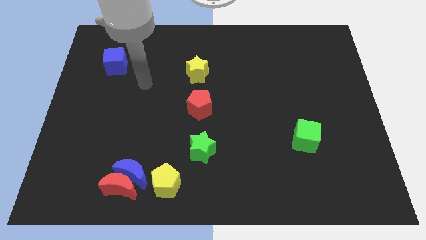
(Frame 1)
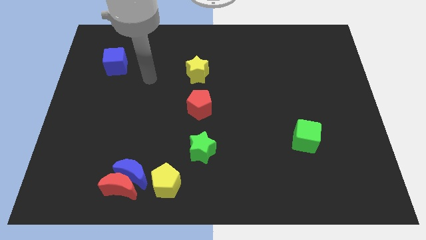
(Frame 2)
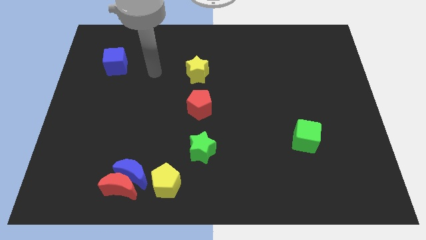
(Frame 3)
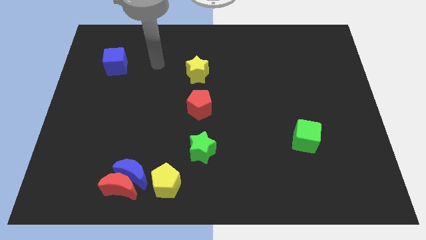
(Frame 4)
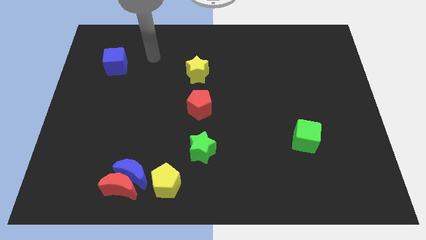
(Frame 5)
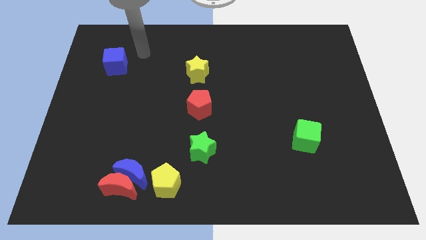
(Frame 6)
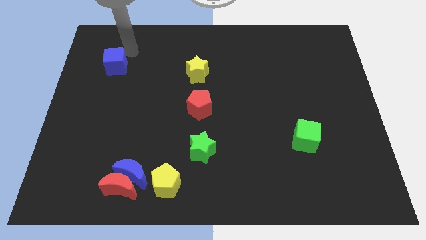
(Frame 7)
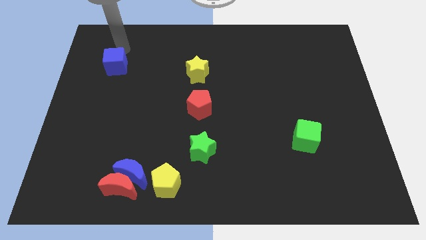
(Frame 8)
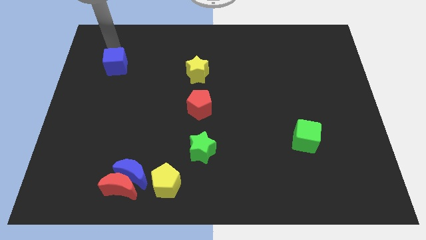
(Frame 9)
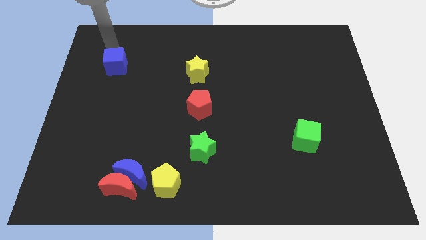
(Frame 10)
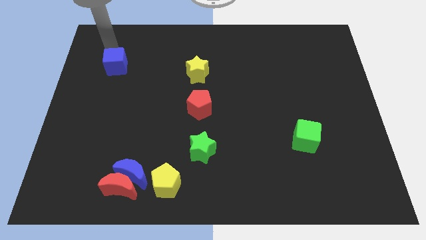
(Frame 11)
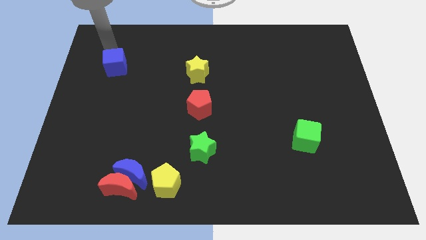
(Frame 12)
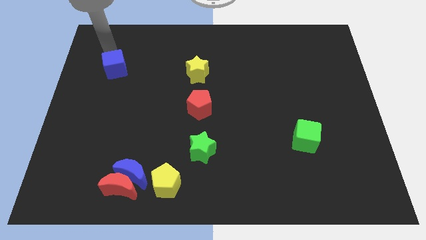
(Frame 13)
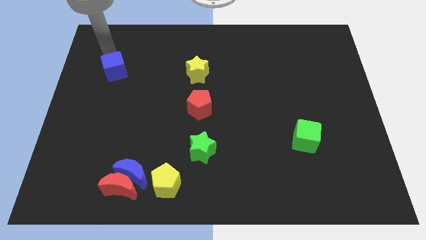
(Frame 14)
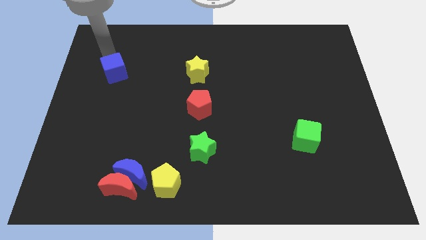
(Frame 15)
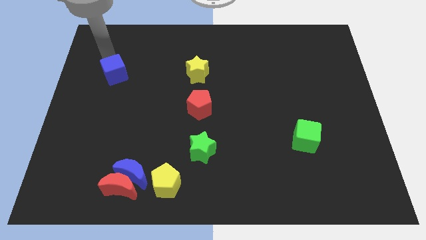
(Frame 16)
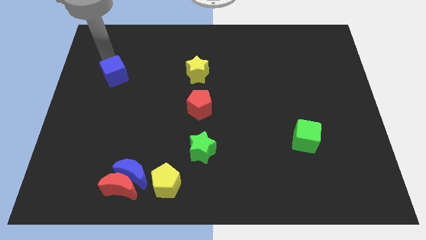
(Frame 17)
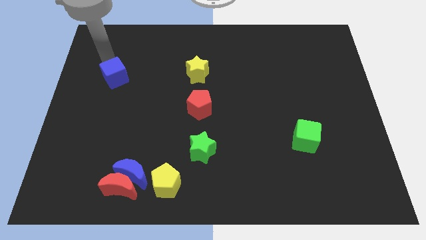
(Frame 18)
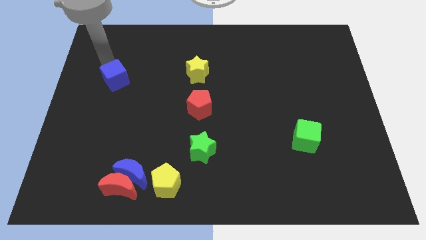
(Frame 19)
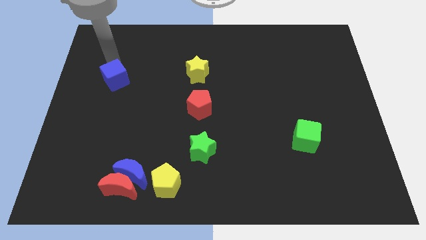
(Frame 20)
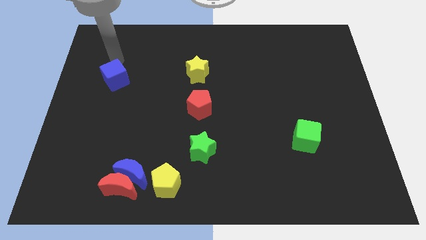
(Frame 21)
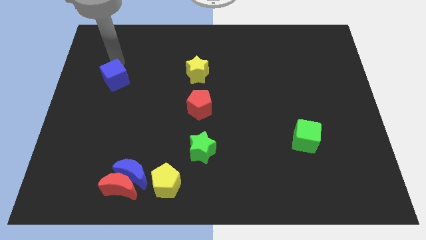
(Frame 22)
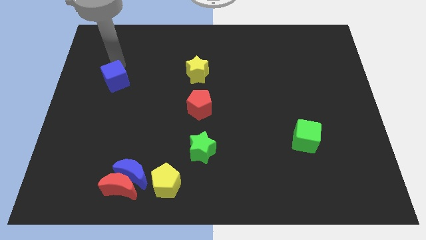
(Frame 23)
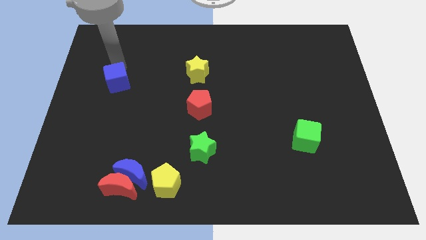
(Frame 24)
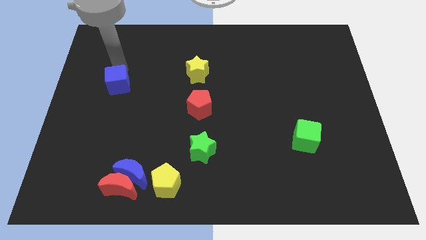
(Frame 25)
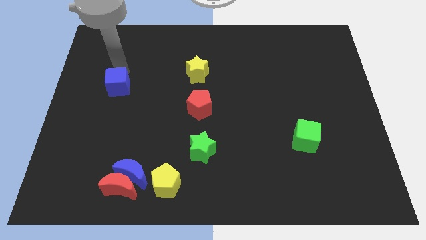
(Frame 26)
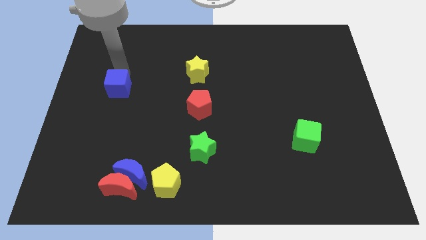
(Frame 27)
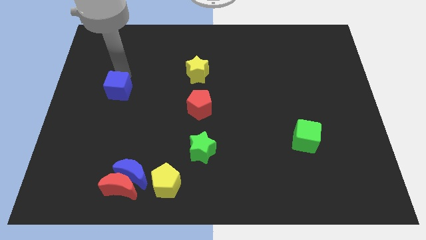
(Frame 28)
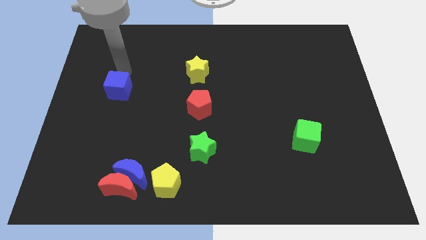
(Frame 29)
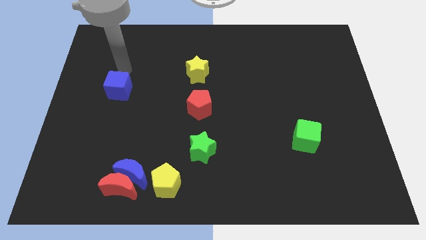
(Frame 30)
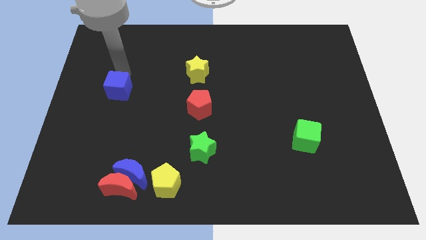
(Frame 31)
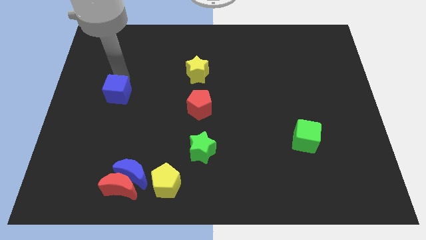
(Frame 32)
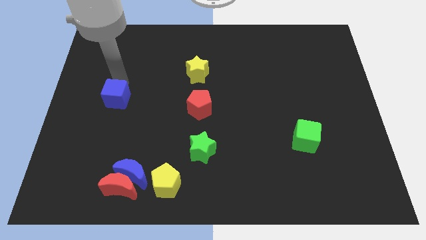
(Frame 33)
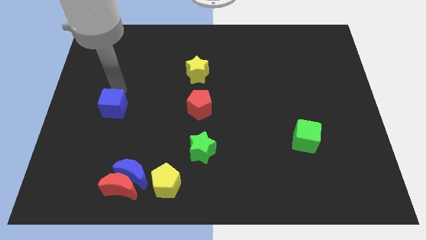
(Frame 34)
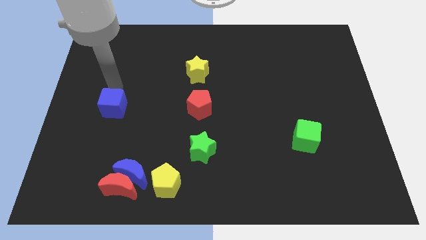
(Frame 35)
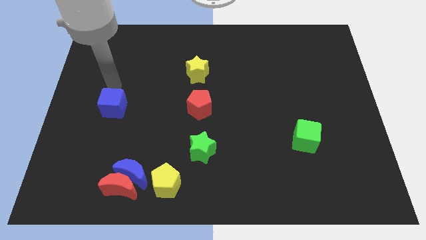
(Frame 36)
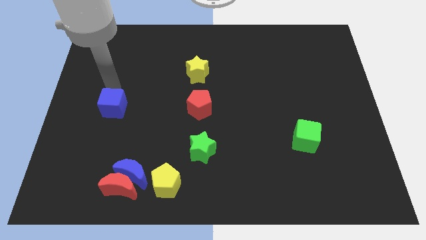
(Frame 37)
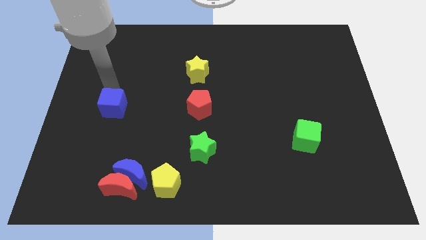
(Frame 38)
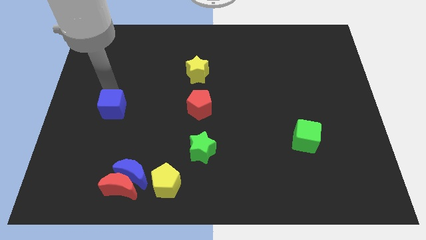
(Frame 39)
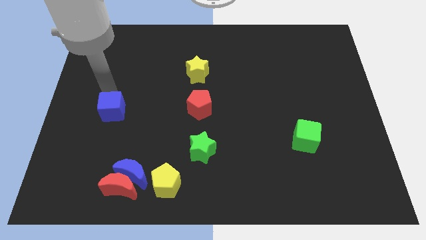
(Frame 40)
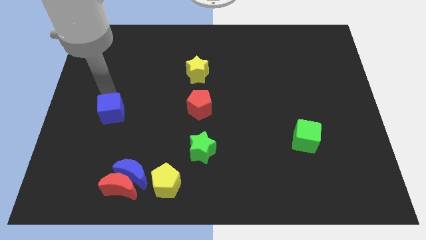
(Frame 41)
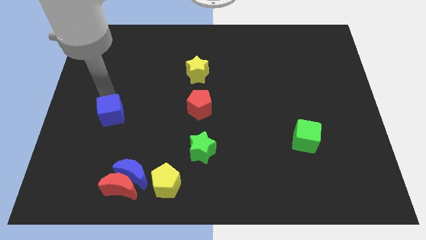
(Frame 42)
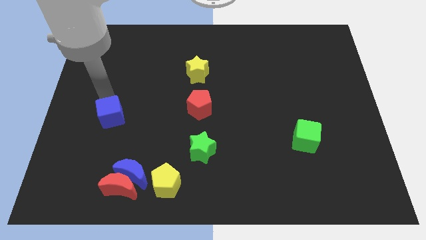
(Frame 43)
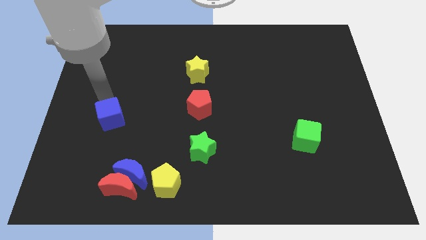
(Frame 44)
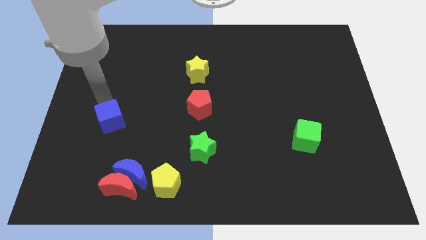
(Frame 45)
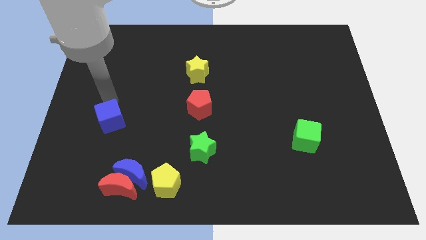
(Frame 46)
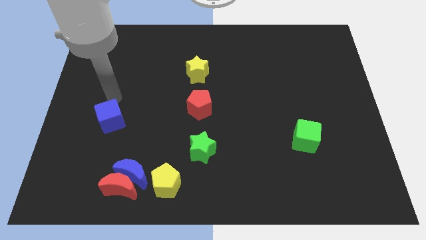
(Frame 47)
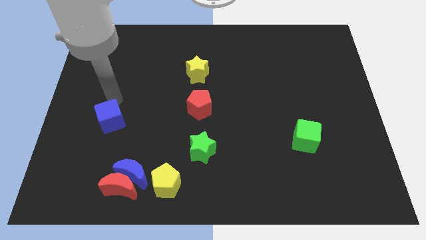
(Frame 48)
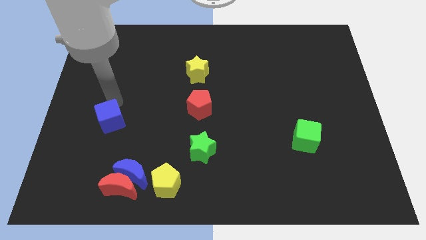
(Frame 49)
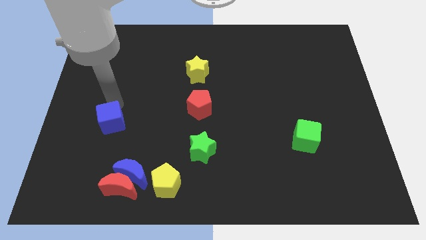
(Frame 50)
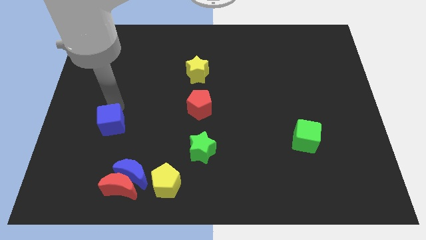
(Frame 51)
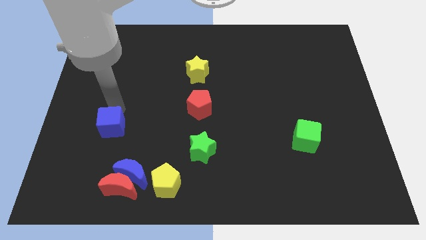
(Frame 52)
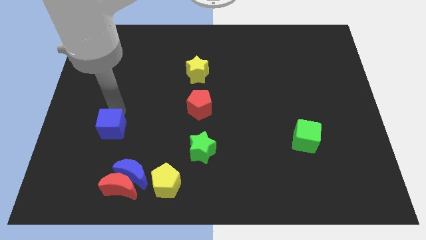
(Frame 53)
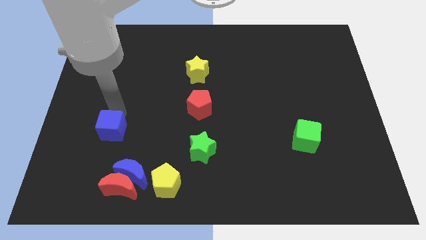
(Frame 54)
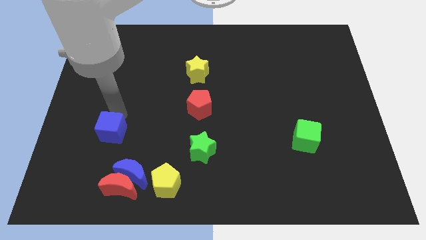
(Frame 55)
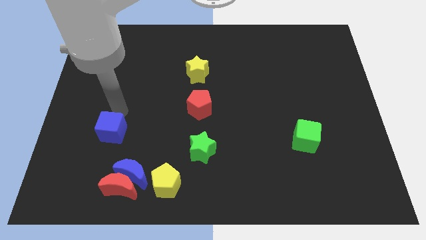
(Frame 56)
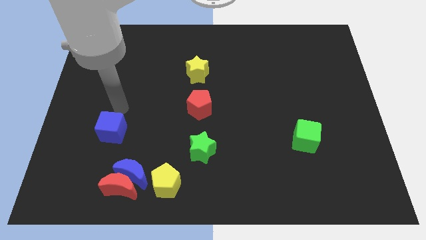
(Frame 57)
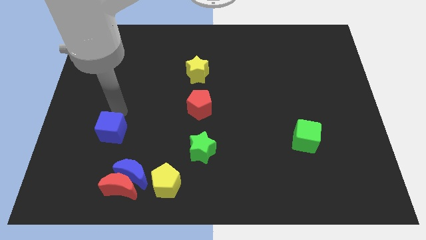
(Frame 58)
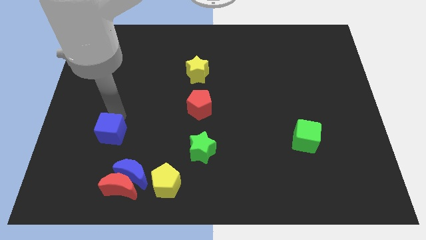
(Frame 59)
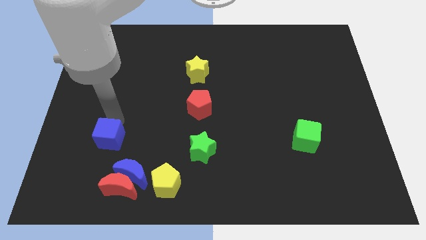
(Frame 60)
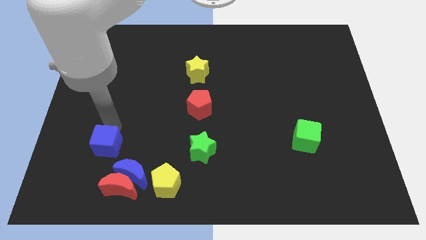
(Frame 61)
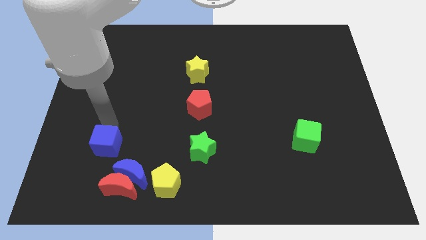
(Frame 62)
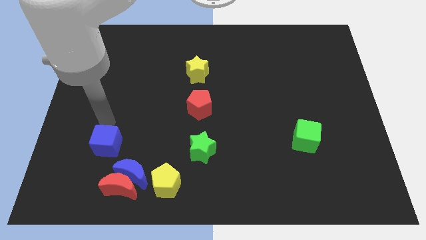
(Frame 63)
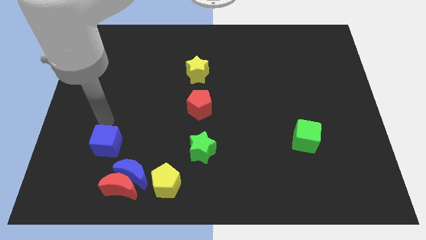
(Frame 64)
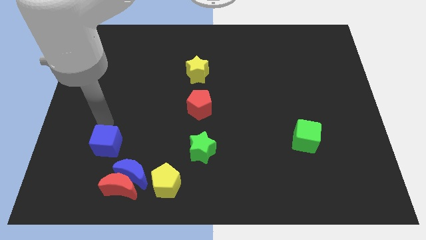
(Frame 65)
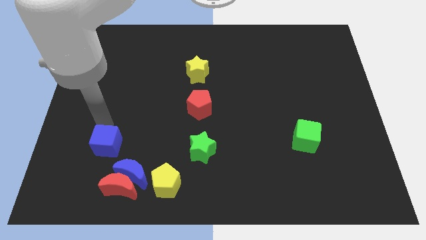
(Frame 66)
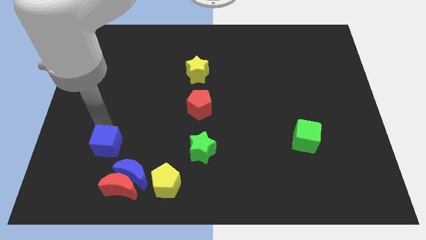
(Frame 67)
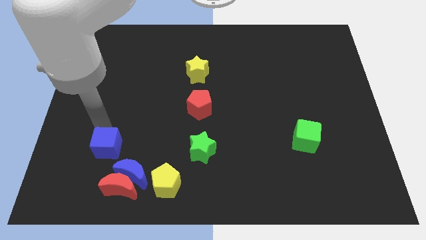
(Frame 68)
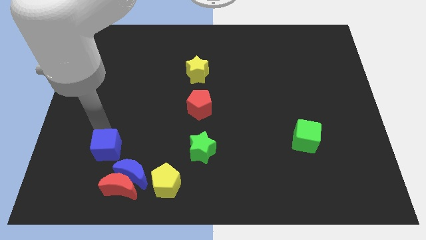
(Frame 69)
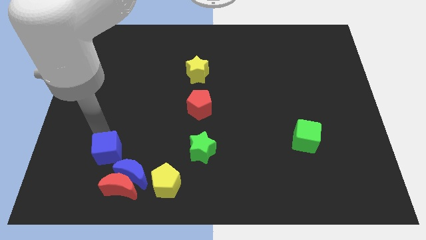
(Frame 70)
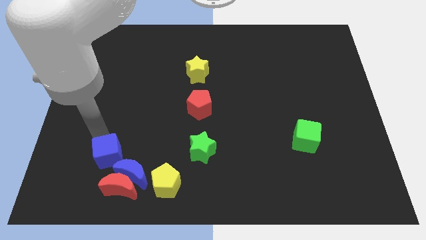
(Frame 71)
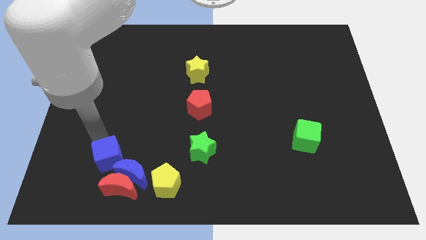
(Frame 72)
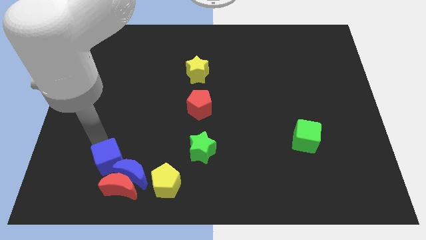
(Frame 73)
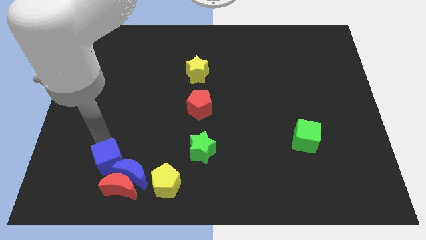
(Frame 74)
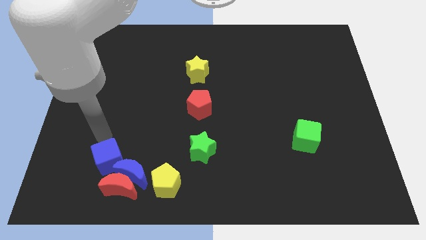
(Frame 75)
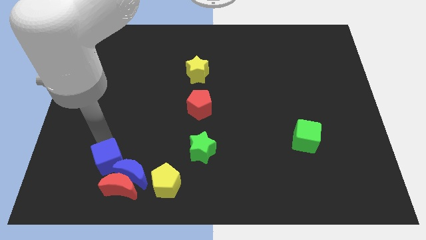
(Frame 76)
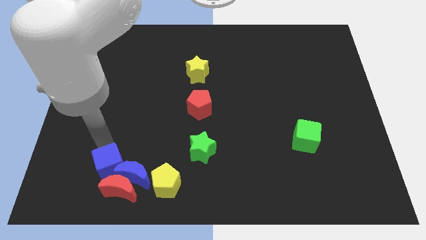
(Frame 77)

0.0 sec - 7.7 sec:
slide the blue cube left of the yellow pentagon
